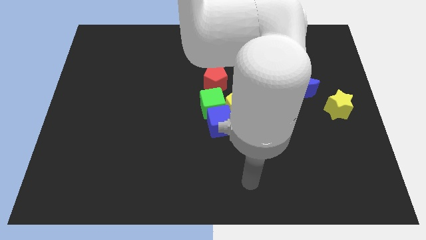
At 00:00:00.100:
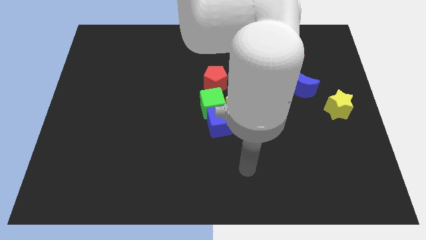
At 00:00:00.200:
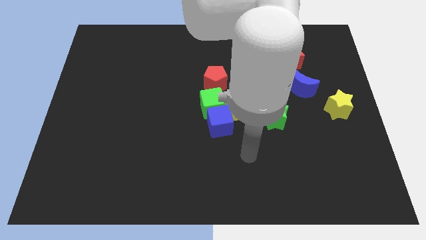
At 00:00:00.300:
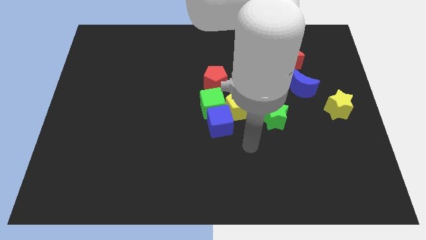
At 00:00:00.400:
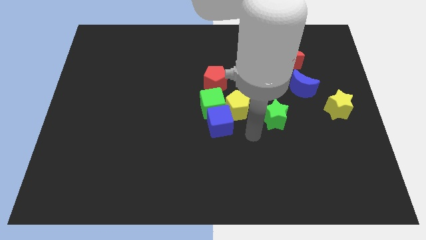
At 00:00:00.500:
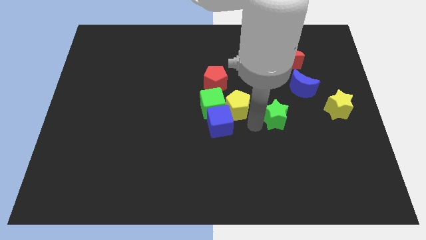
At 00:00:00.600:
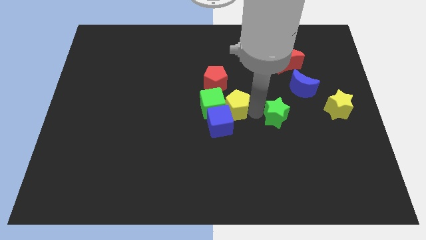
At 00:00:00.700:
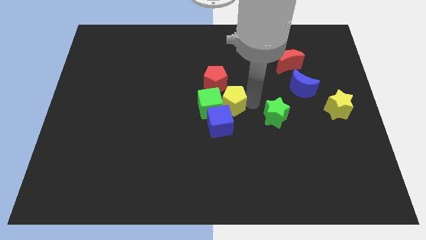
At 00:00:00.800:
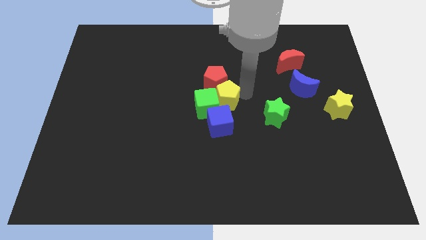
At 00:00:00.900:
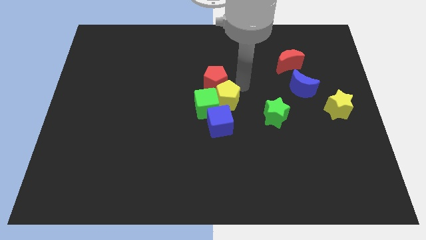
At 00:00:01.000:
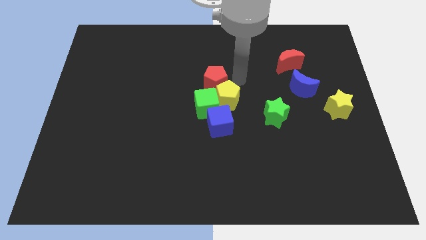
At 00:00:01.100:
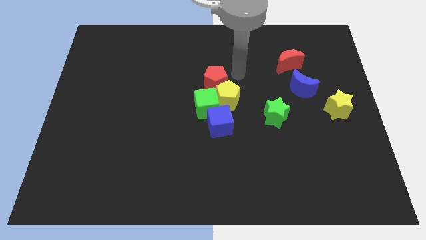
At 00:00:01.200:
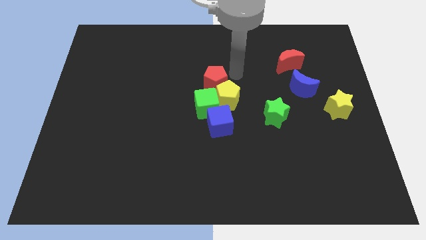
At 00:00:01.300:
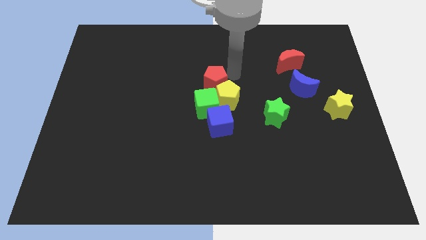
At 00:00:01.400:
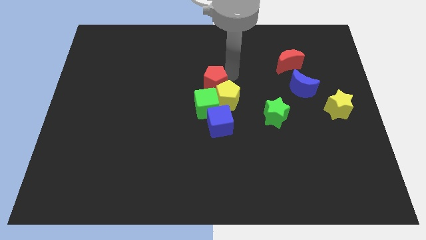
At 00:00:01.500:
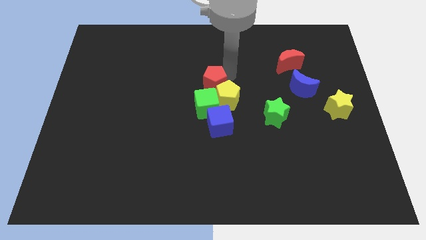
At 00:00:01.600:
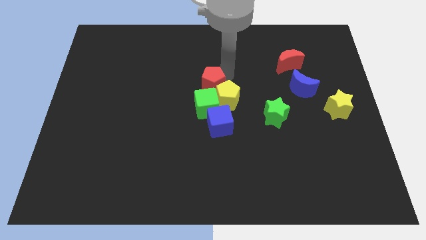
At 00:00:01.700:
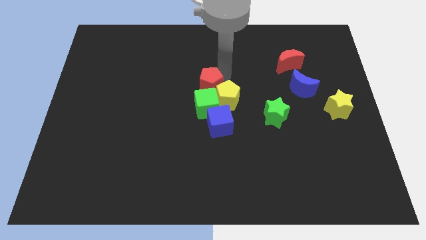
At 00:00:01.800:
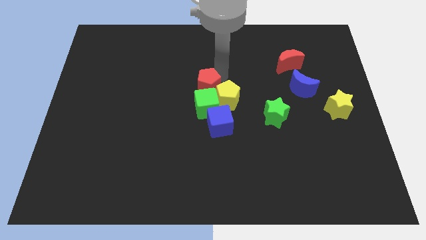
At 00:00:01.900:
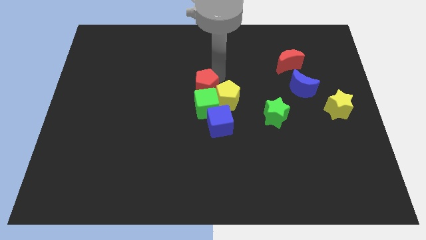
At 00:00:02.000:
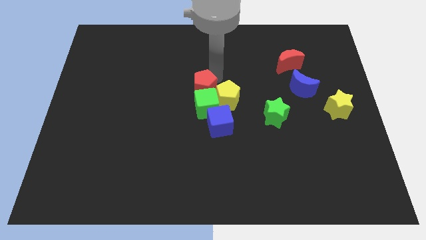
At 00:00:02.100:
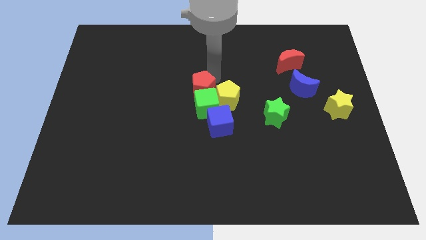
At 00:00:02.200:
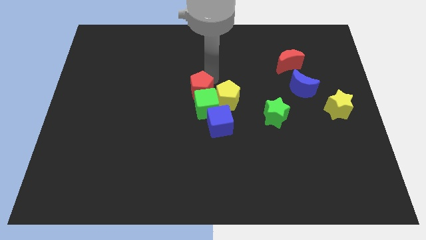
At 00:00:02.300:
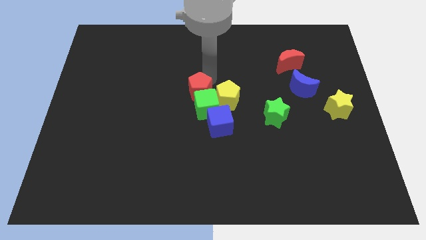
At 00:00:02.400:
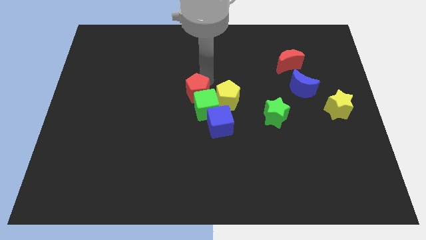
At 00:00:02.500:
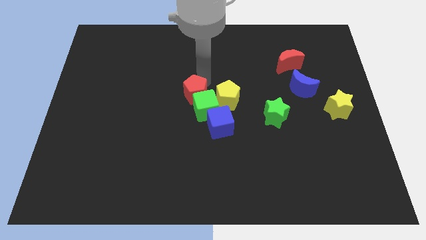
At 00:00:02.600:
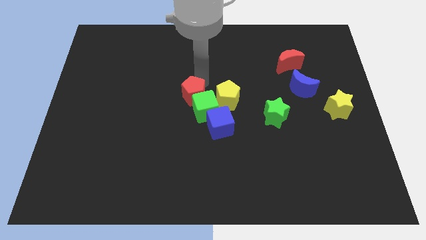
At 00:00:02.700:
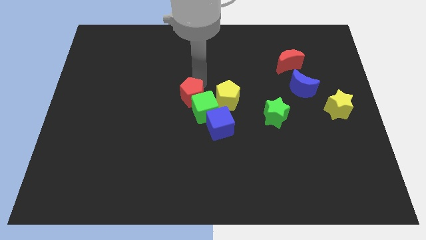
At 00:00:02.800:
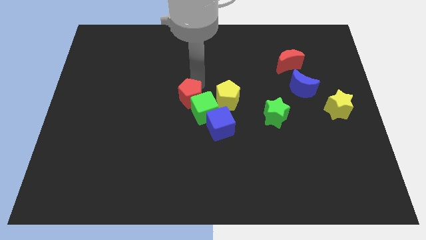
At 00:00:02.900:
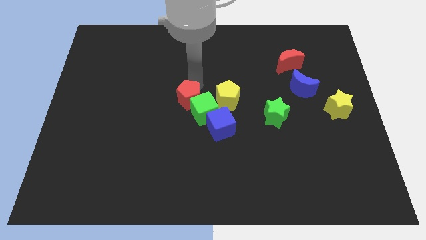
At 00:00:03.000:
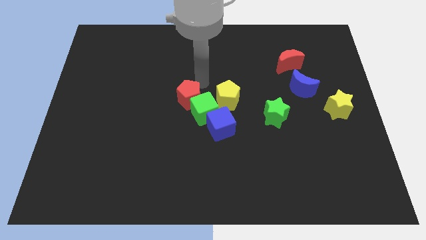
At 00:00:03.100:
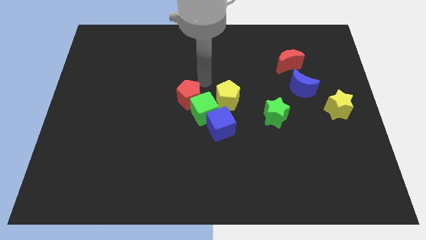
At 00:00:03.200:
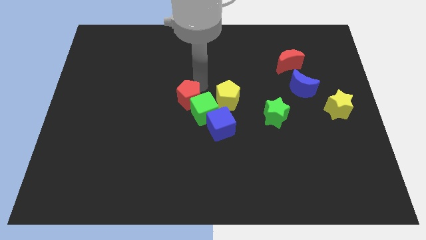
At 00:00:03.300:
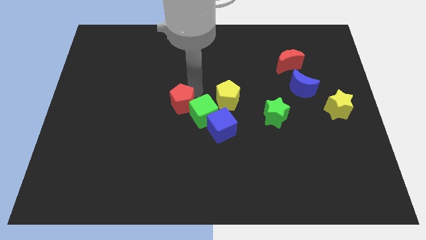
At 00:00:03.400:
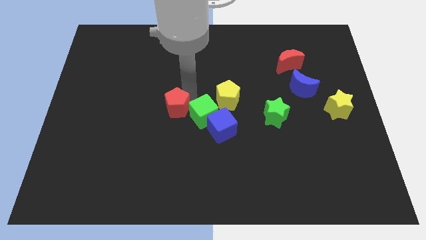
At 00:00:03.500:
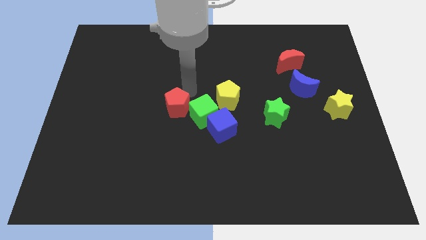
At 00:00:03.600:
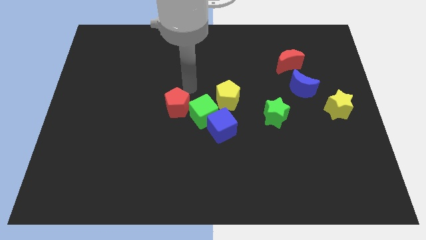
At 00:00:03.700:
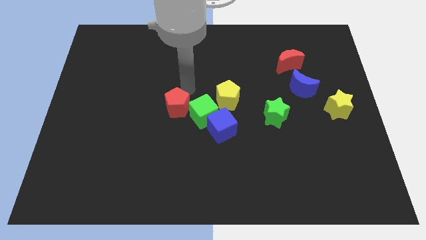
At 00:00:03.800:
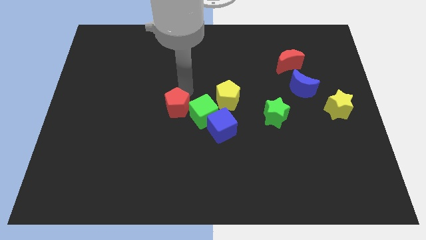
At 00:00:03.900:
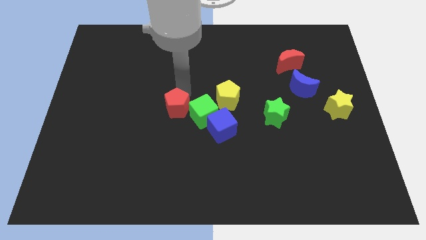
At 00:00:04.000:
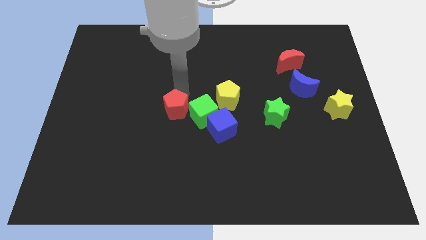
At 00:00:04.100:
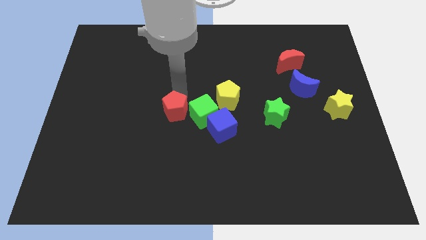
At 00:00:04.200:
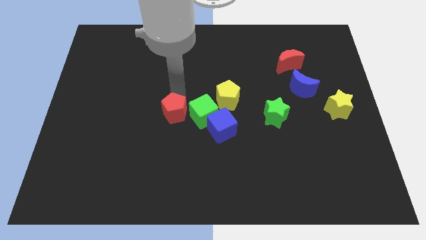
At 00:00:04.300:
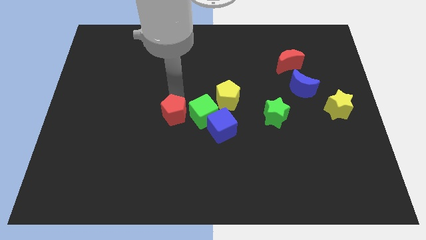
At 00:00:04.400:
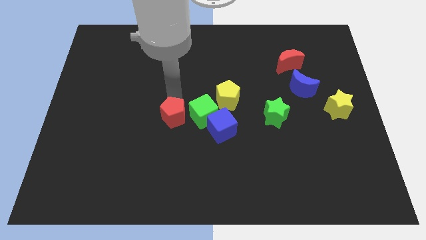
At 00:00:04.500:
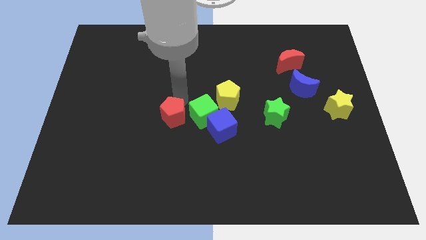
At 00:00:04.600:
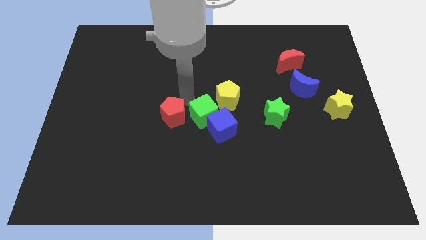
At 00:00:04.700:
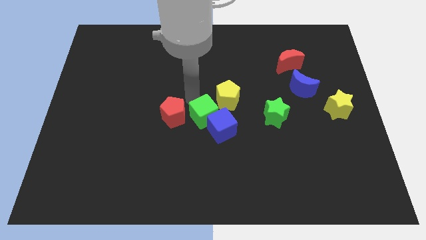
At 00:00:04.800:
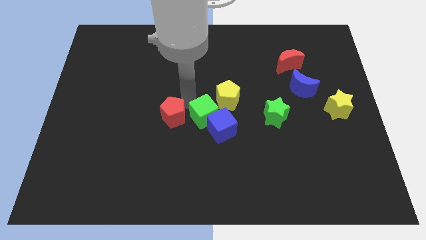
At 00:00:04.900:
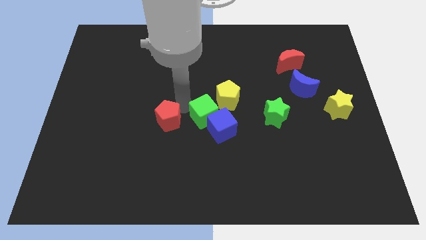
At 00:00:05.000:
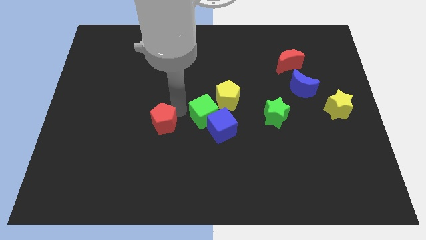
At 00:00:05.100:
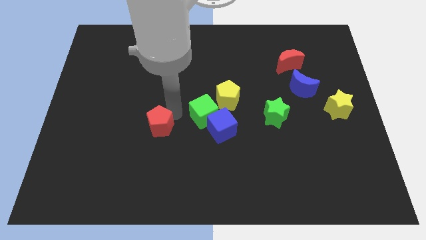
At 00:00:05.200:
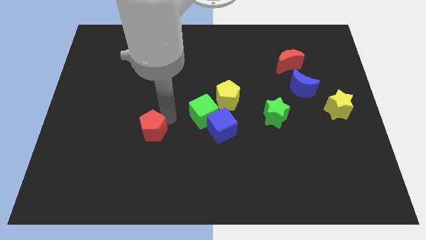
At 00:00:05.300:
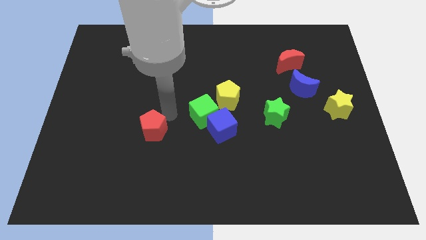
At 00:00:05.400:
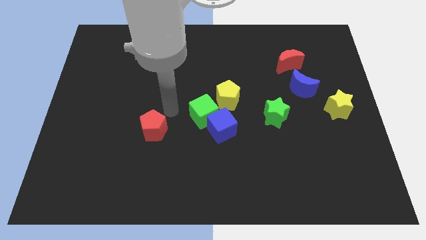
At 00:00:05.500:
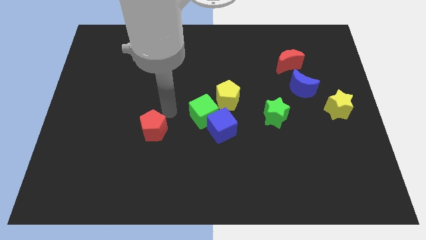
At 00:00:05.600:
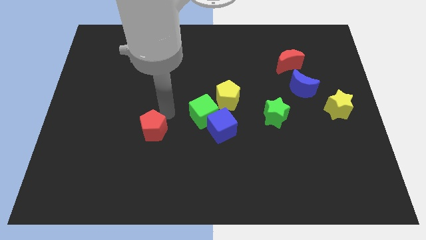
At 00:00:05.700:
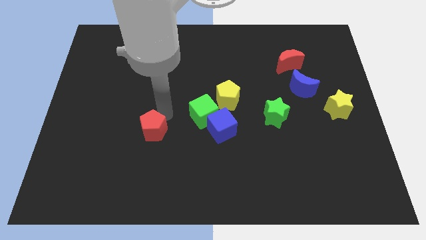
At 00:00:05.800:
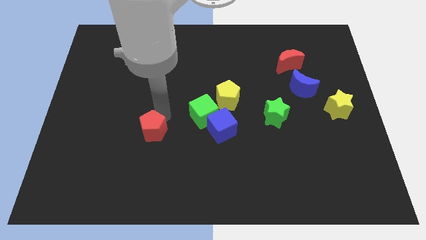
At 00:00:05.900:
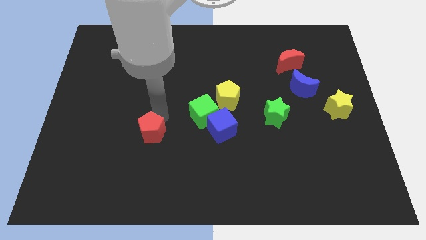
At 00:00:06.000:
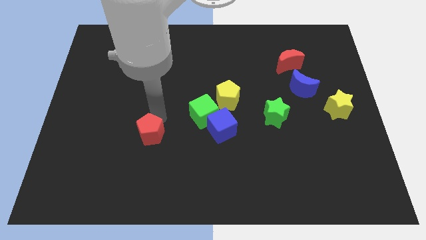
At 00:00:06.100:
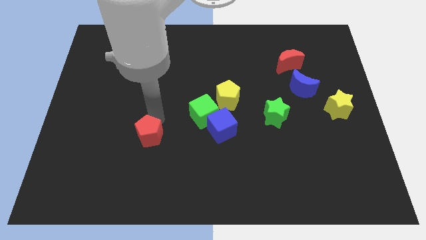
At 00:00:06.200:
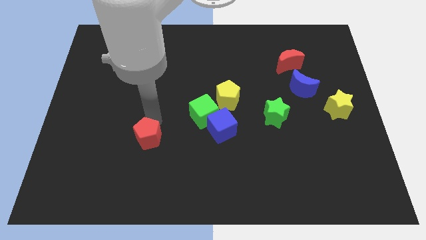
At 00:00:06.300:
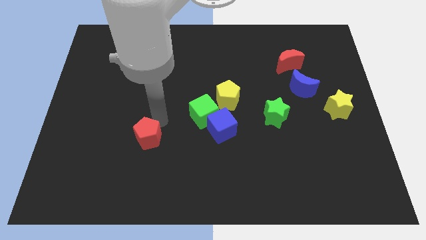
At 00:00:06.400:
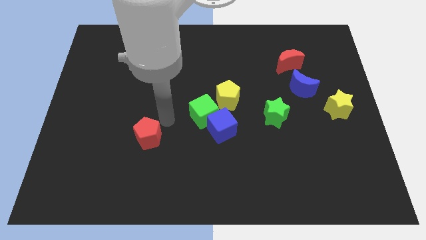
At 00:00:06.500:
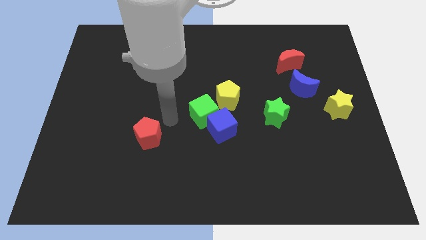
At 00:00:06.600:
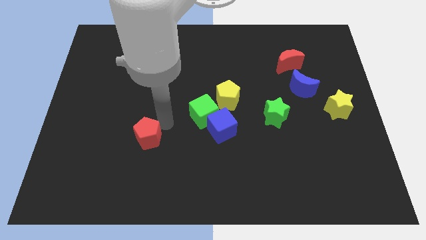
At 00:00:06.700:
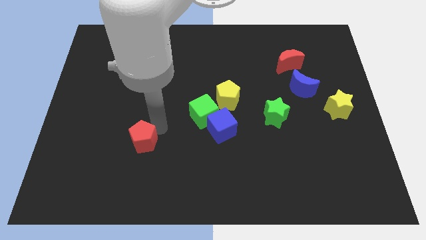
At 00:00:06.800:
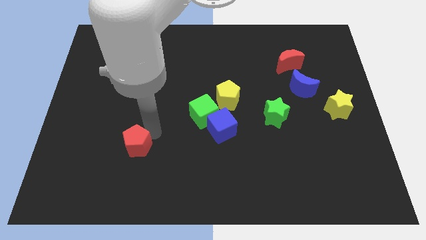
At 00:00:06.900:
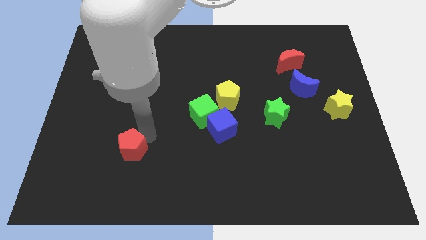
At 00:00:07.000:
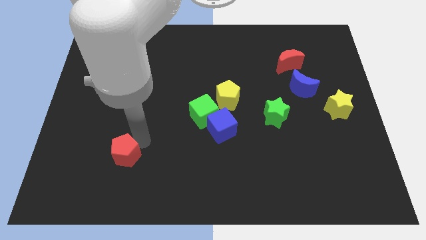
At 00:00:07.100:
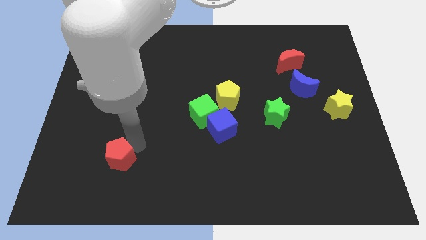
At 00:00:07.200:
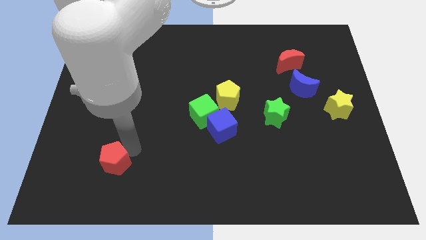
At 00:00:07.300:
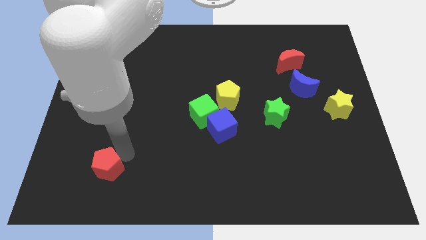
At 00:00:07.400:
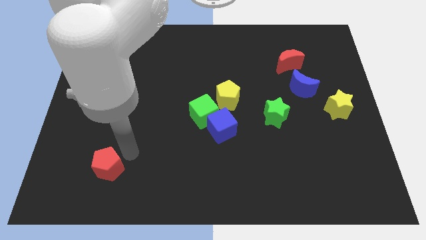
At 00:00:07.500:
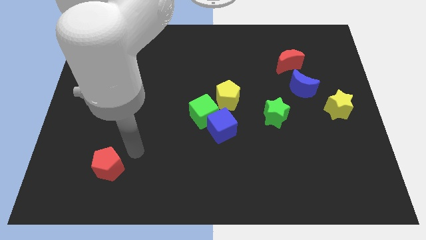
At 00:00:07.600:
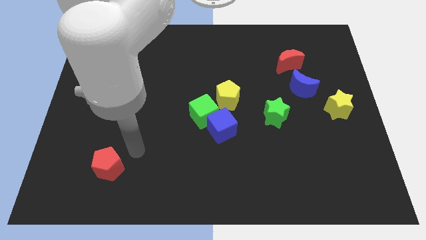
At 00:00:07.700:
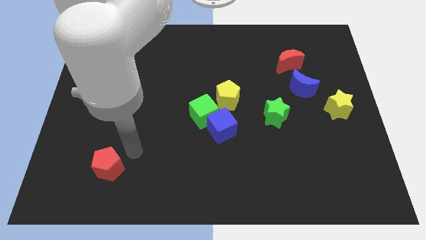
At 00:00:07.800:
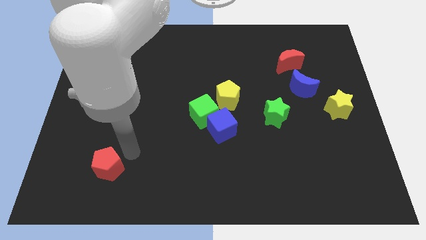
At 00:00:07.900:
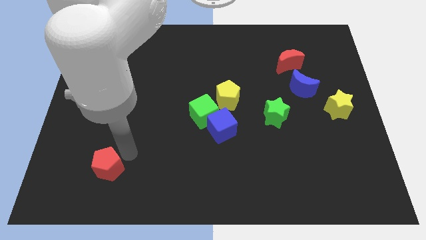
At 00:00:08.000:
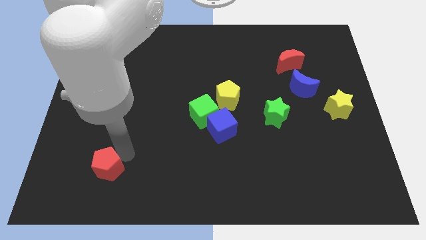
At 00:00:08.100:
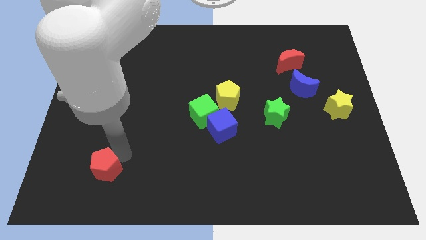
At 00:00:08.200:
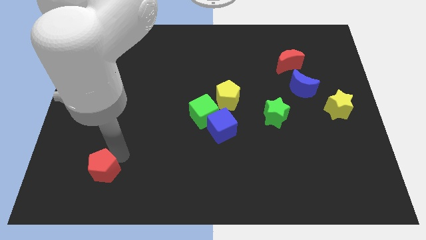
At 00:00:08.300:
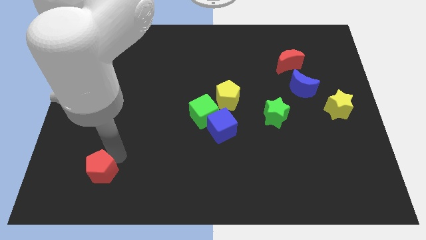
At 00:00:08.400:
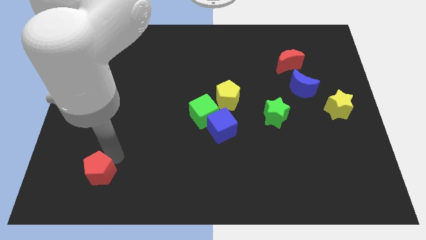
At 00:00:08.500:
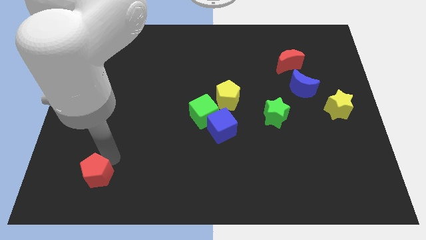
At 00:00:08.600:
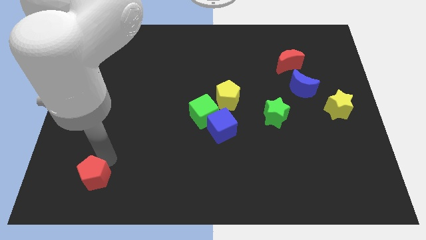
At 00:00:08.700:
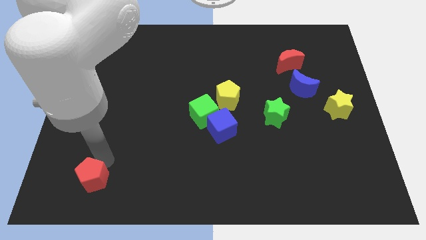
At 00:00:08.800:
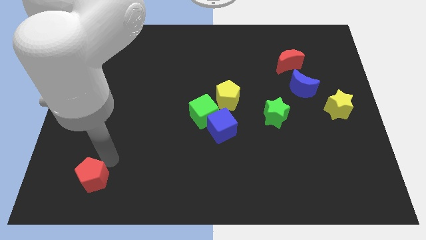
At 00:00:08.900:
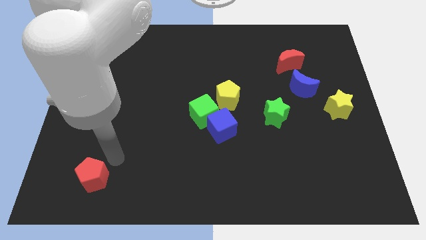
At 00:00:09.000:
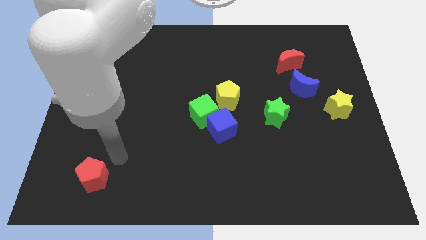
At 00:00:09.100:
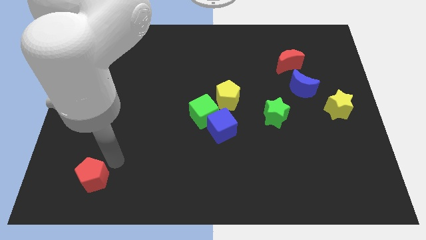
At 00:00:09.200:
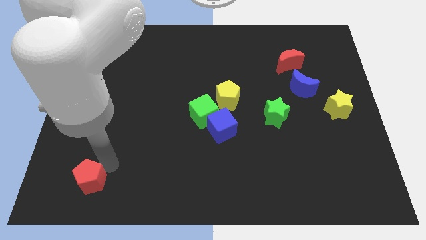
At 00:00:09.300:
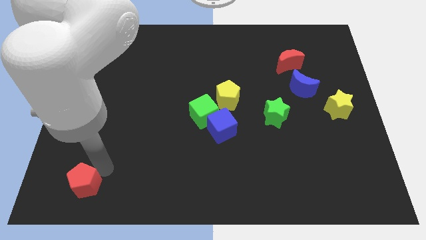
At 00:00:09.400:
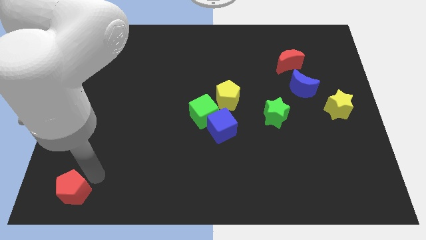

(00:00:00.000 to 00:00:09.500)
put the red pentagon to the bottom left corner
